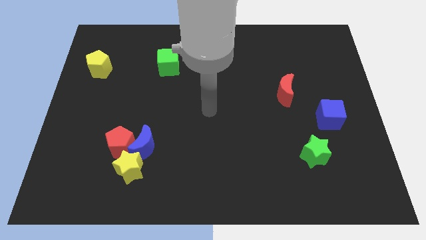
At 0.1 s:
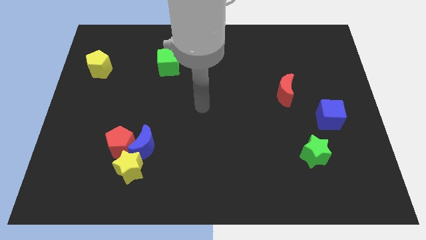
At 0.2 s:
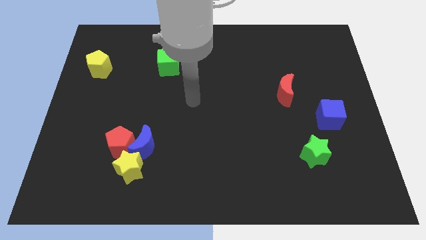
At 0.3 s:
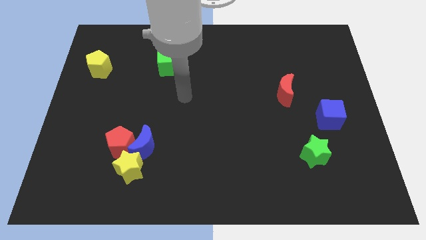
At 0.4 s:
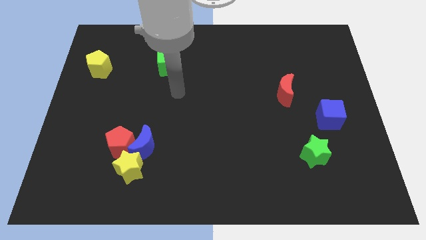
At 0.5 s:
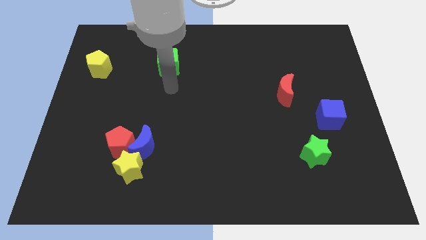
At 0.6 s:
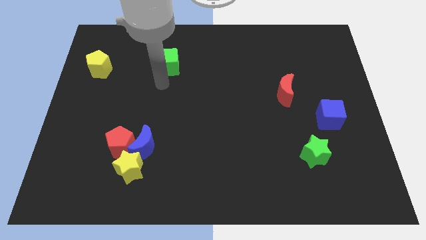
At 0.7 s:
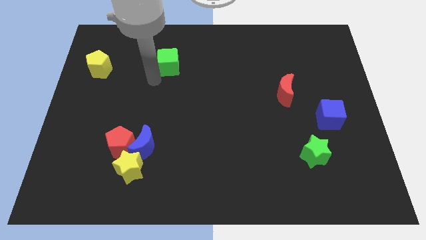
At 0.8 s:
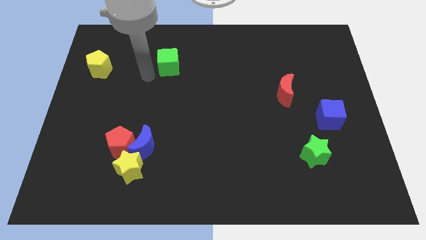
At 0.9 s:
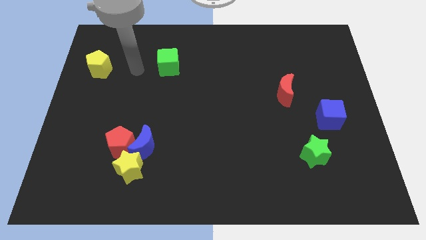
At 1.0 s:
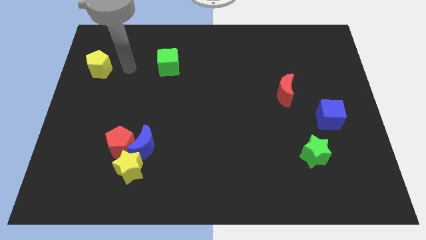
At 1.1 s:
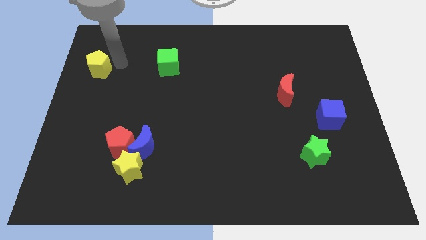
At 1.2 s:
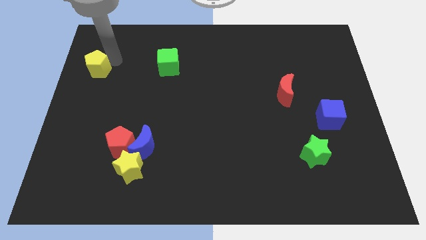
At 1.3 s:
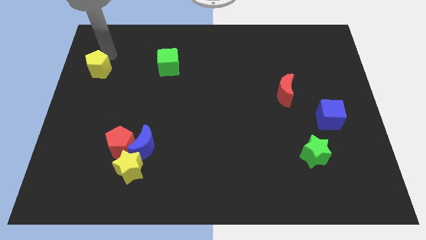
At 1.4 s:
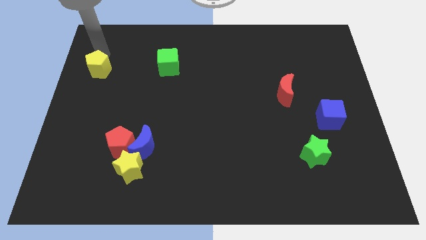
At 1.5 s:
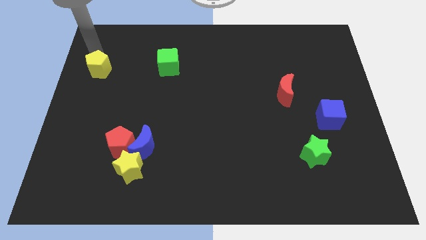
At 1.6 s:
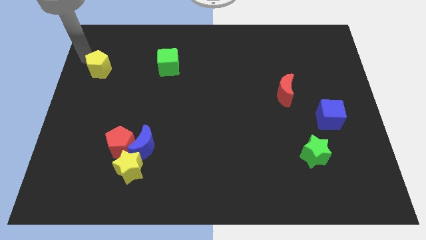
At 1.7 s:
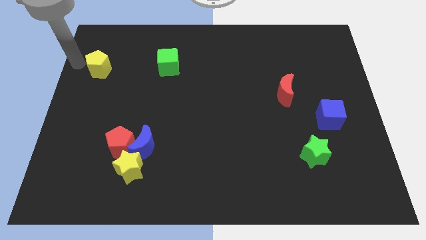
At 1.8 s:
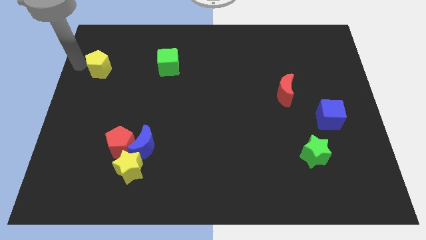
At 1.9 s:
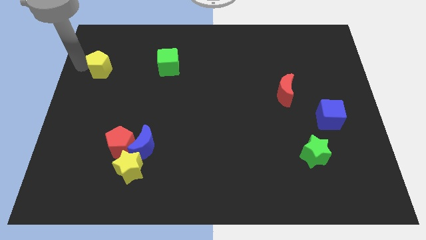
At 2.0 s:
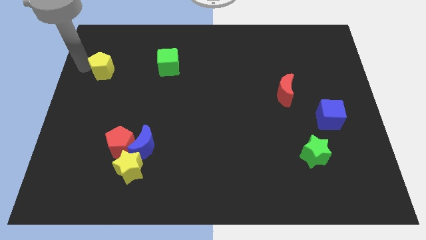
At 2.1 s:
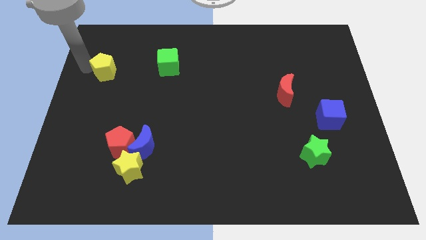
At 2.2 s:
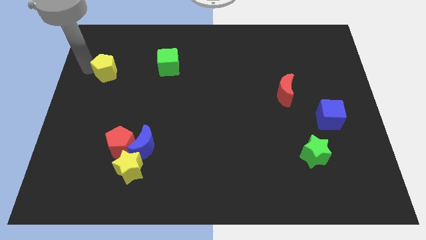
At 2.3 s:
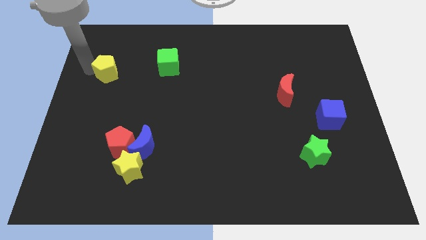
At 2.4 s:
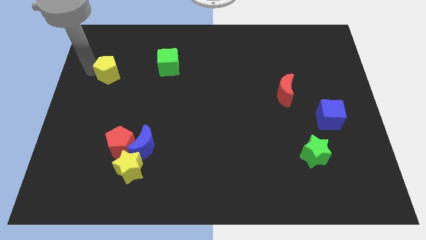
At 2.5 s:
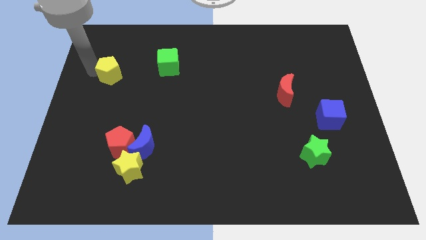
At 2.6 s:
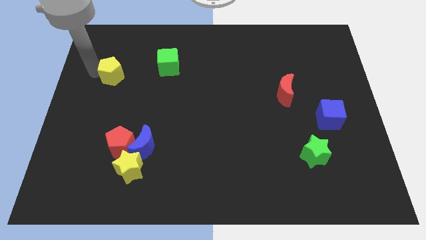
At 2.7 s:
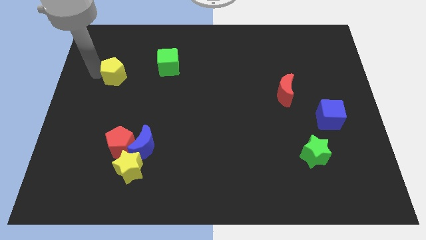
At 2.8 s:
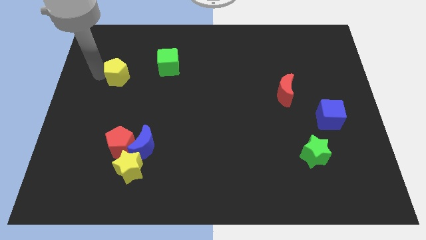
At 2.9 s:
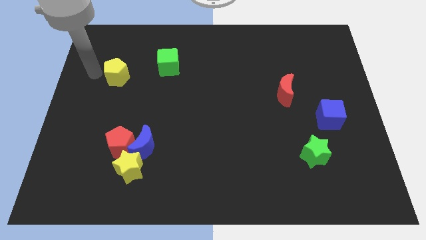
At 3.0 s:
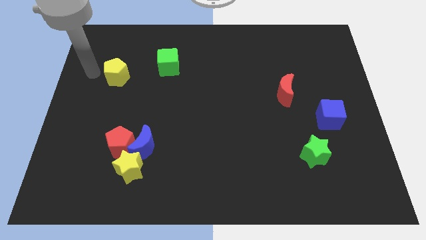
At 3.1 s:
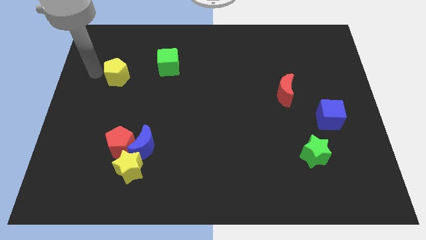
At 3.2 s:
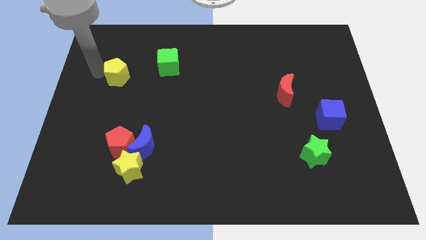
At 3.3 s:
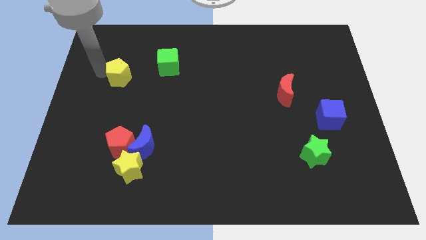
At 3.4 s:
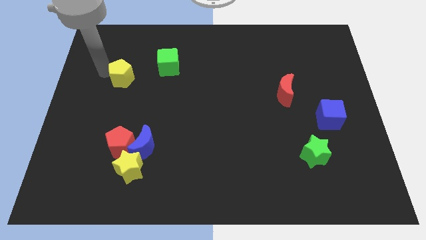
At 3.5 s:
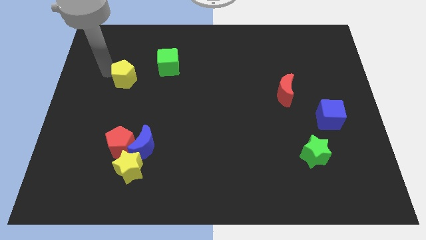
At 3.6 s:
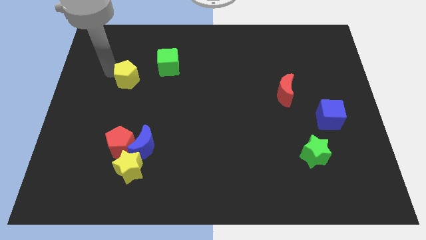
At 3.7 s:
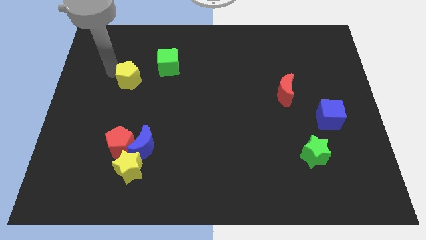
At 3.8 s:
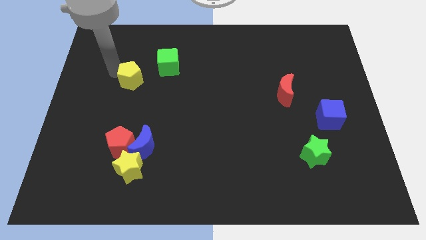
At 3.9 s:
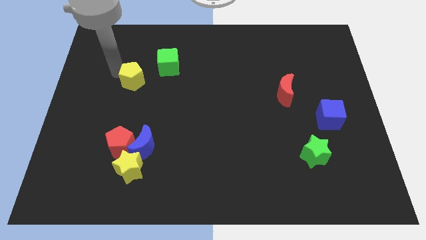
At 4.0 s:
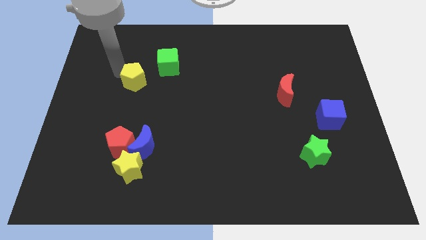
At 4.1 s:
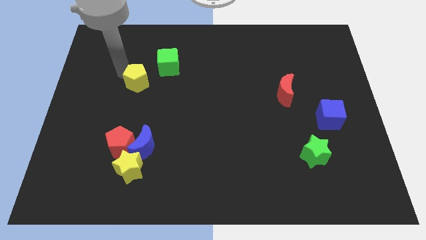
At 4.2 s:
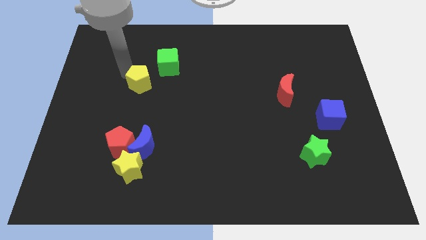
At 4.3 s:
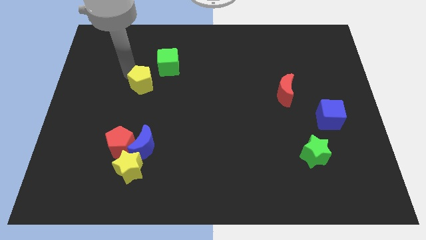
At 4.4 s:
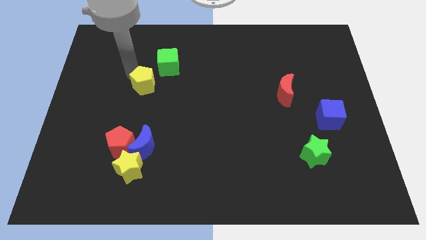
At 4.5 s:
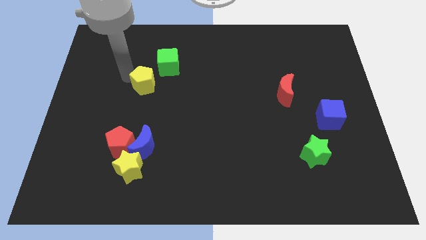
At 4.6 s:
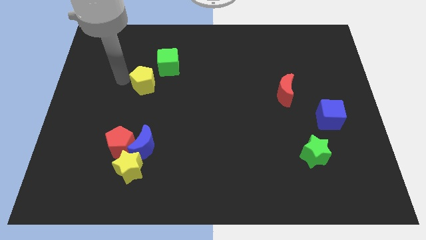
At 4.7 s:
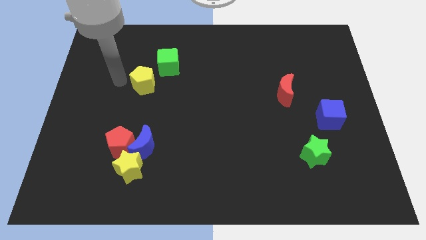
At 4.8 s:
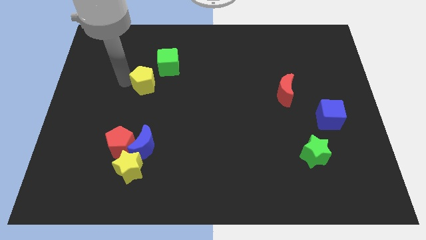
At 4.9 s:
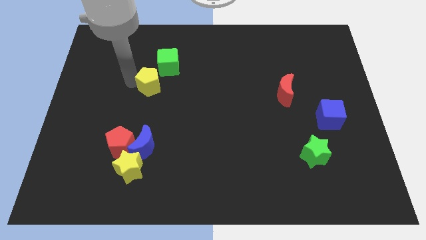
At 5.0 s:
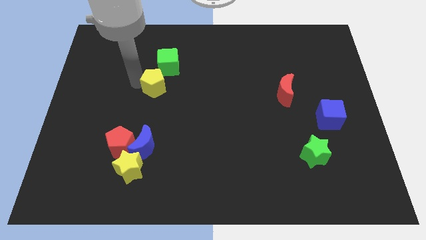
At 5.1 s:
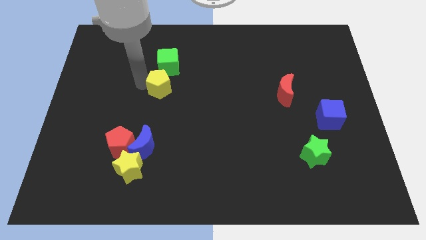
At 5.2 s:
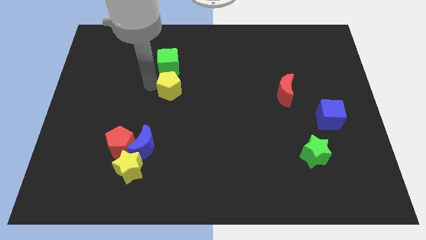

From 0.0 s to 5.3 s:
push the yellow pentagon to the center of the board
